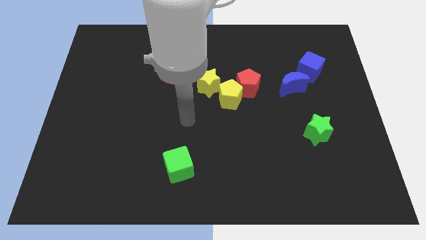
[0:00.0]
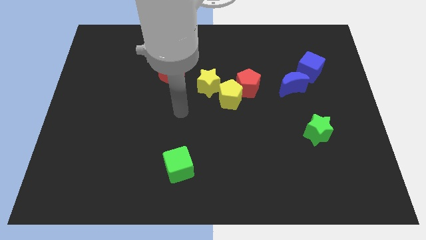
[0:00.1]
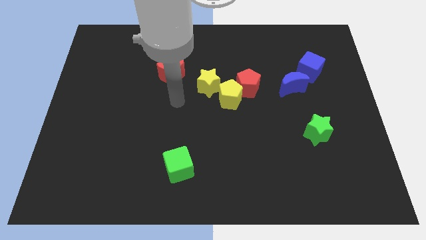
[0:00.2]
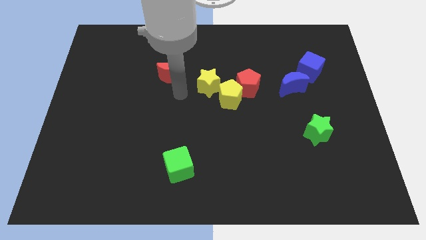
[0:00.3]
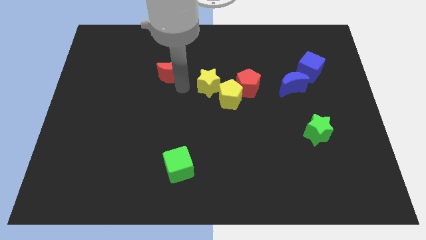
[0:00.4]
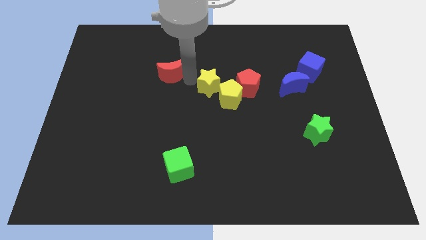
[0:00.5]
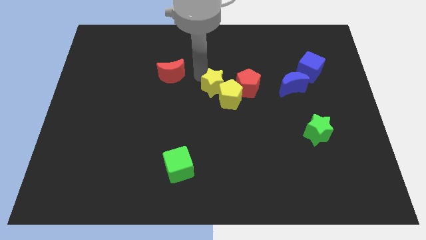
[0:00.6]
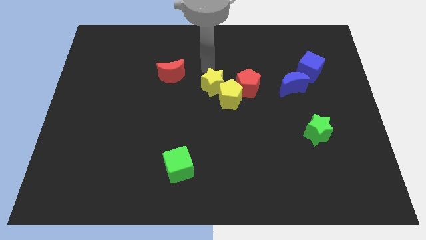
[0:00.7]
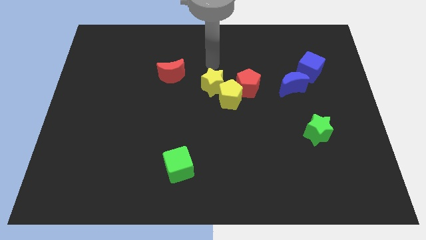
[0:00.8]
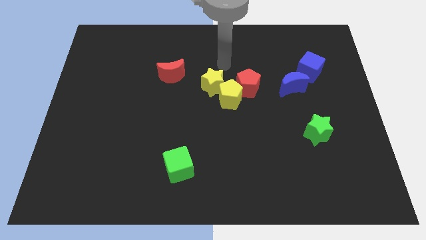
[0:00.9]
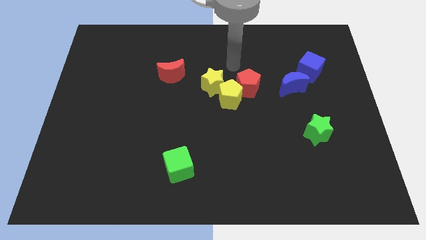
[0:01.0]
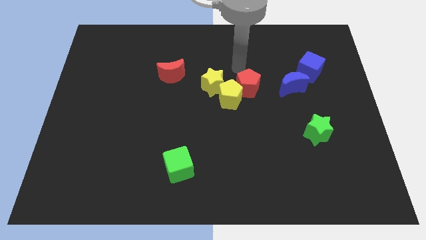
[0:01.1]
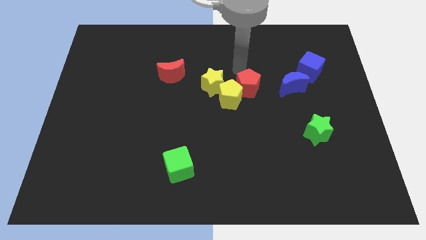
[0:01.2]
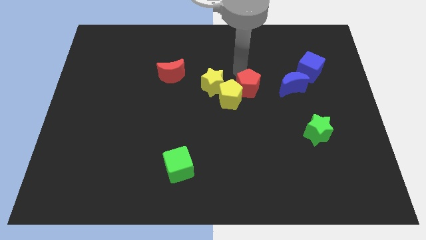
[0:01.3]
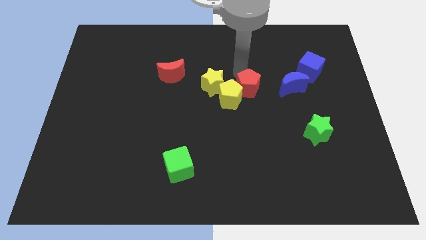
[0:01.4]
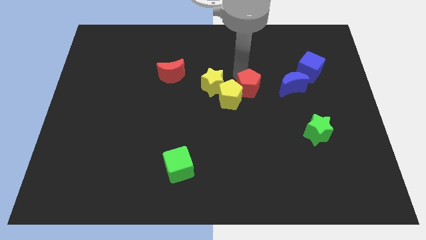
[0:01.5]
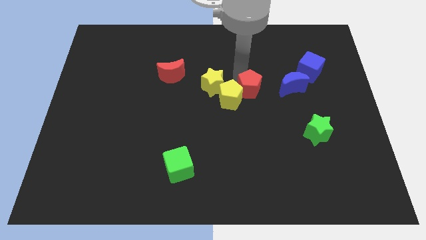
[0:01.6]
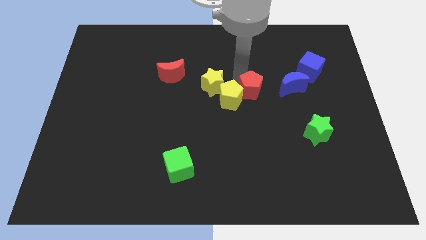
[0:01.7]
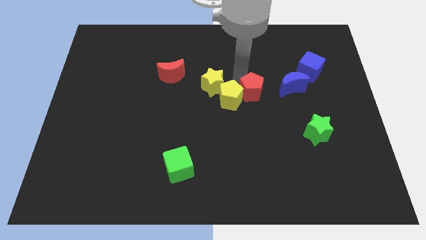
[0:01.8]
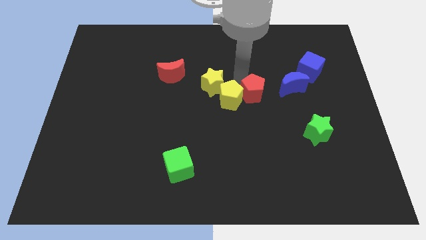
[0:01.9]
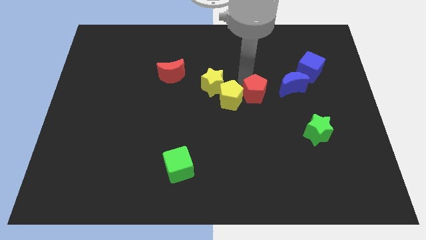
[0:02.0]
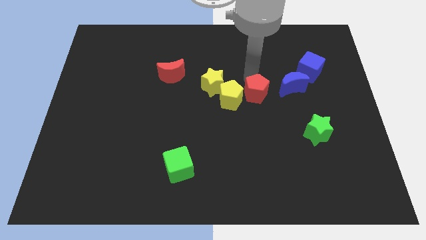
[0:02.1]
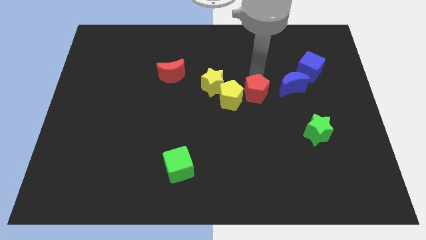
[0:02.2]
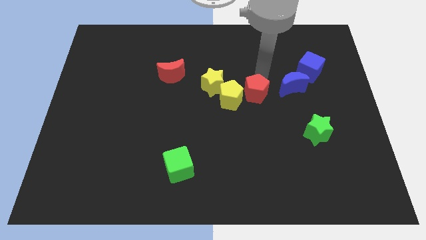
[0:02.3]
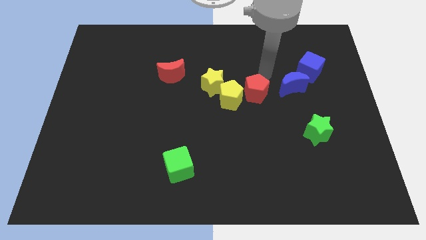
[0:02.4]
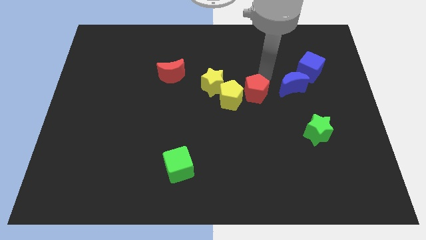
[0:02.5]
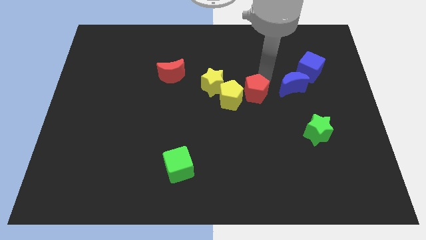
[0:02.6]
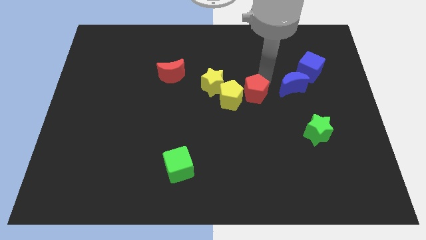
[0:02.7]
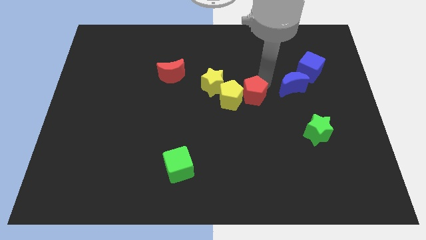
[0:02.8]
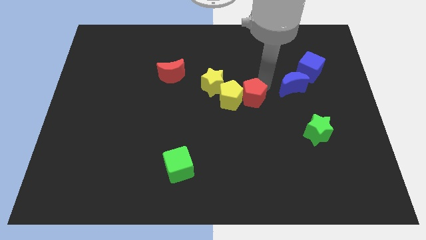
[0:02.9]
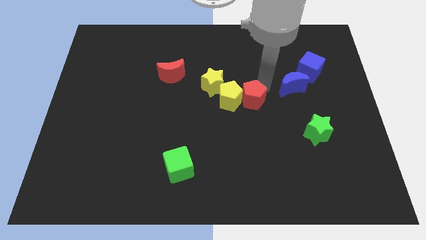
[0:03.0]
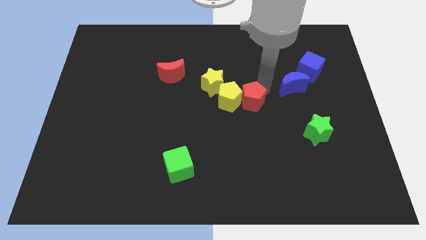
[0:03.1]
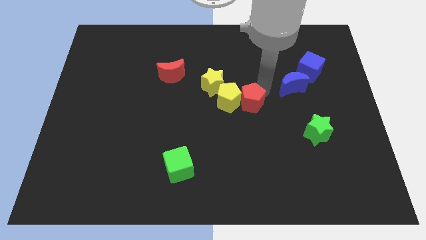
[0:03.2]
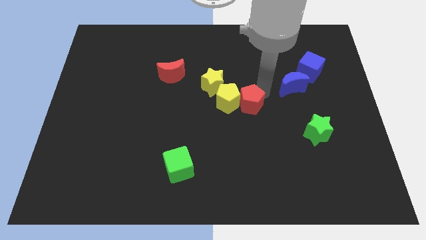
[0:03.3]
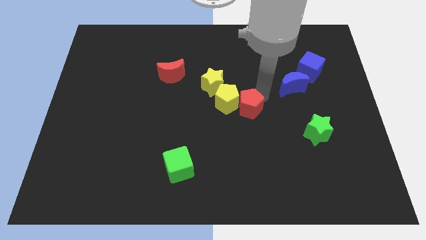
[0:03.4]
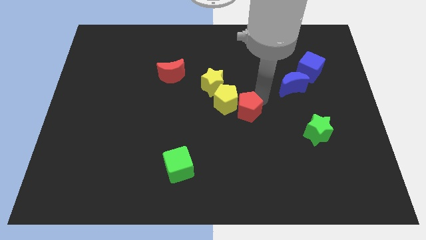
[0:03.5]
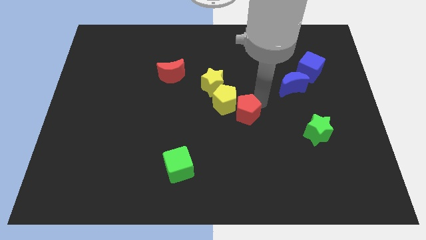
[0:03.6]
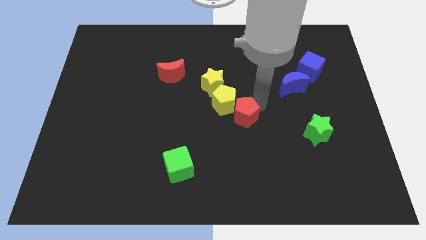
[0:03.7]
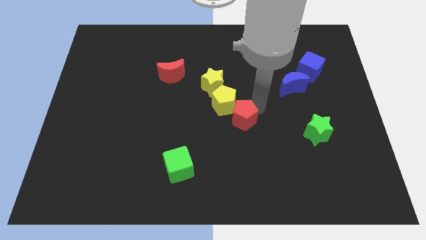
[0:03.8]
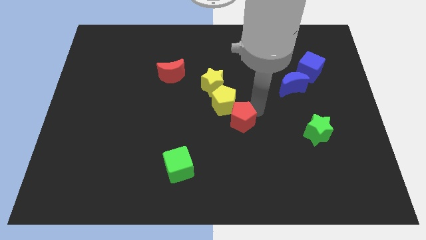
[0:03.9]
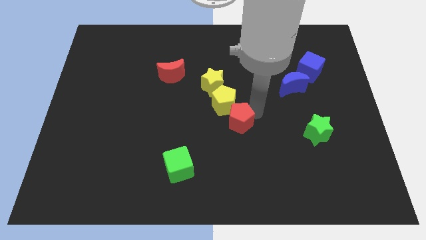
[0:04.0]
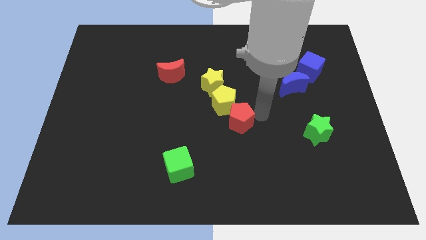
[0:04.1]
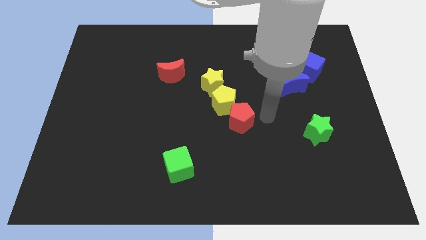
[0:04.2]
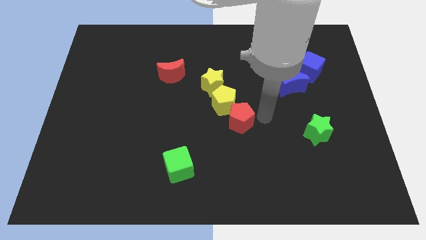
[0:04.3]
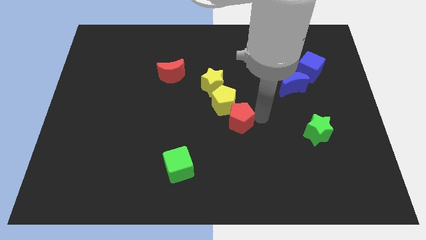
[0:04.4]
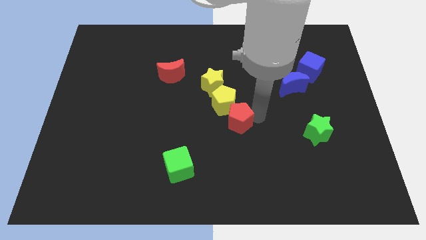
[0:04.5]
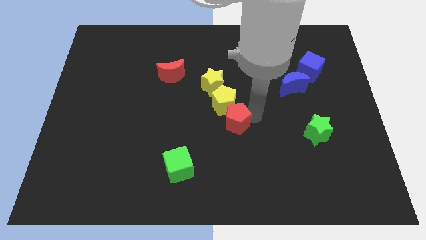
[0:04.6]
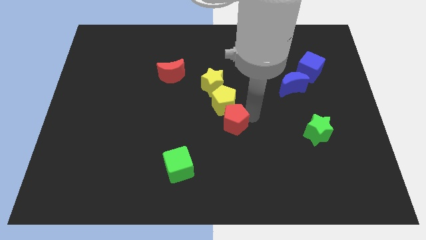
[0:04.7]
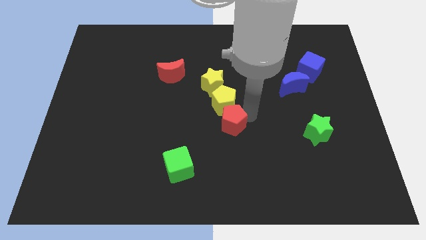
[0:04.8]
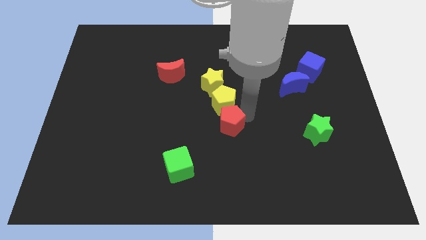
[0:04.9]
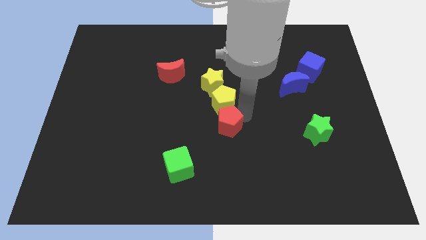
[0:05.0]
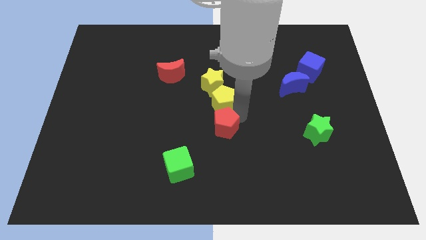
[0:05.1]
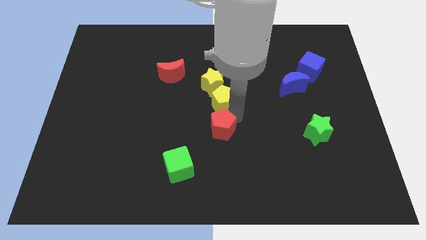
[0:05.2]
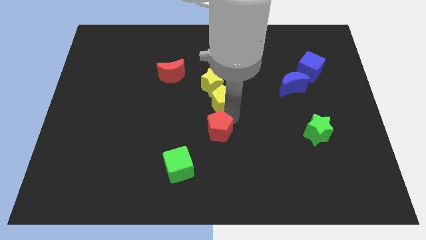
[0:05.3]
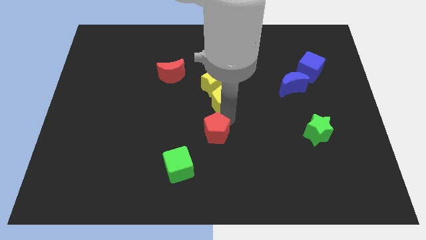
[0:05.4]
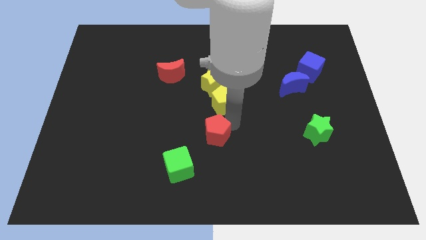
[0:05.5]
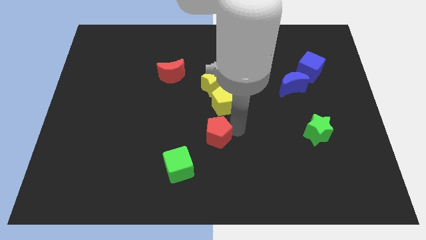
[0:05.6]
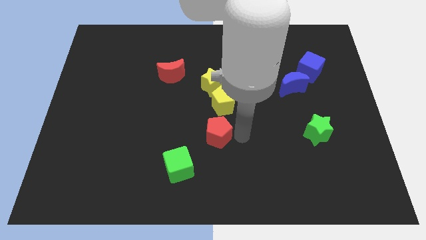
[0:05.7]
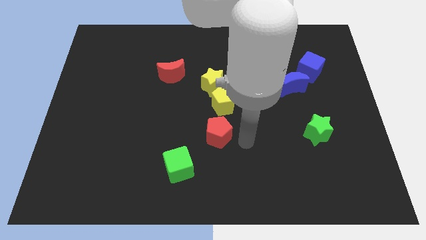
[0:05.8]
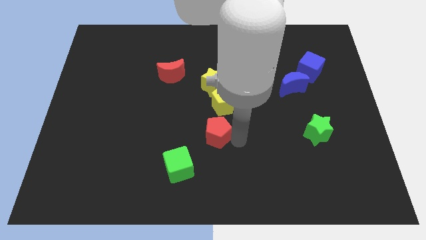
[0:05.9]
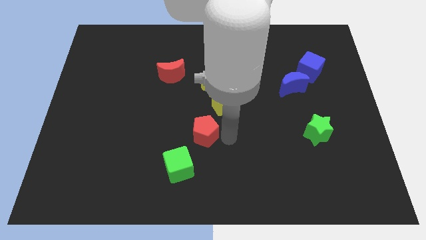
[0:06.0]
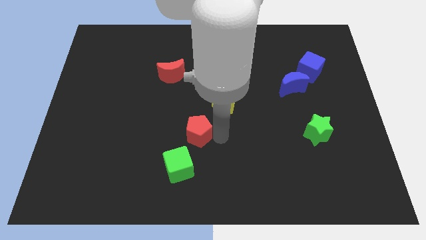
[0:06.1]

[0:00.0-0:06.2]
push the red pentagon above the green cube
